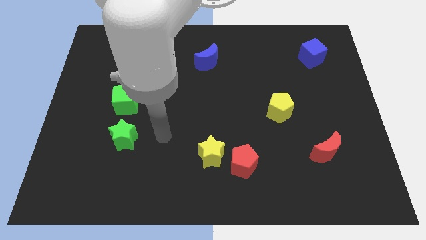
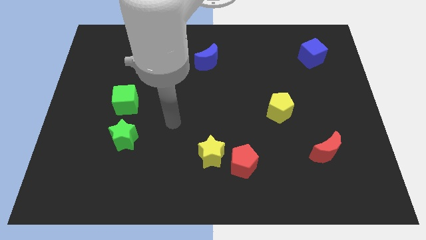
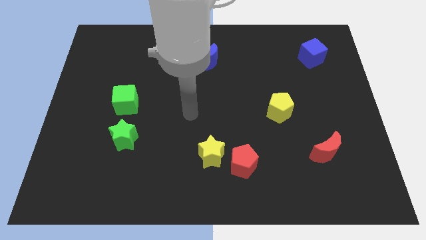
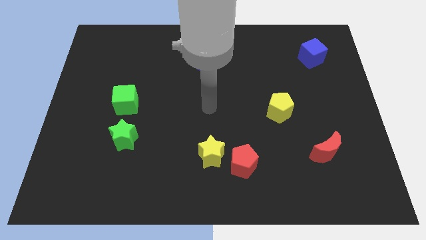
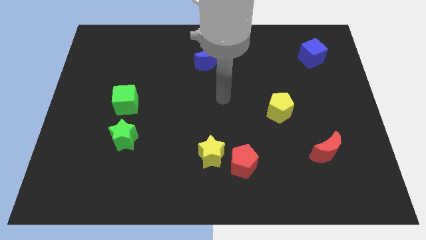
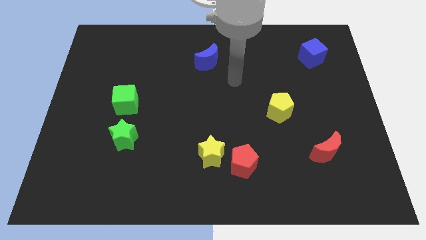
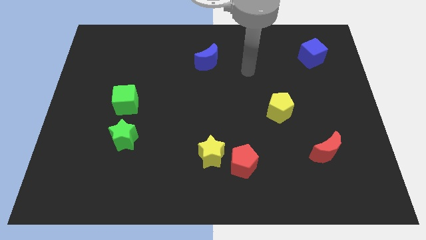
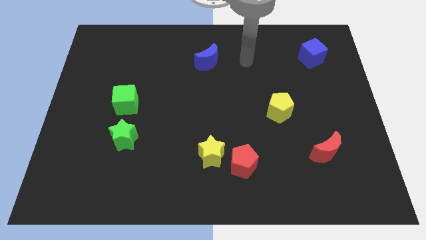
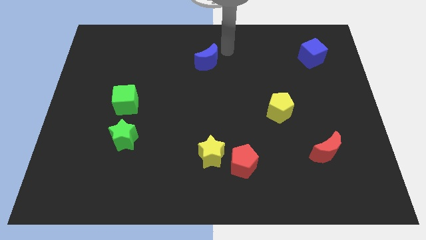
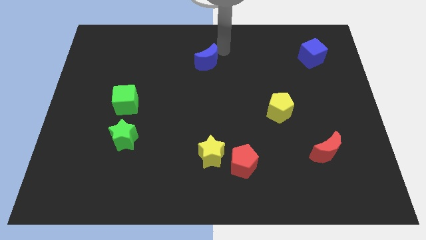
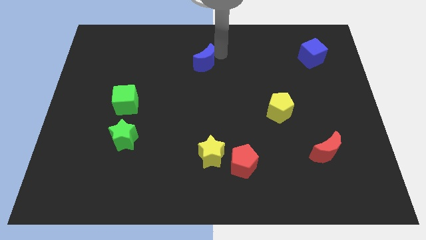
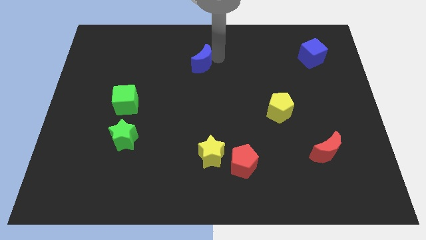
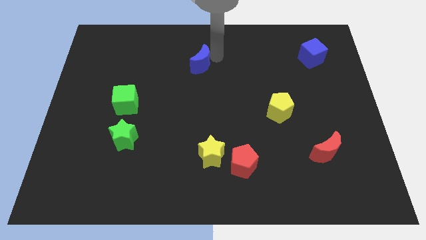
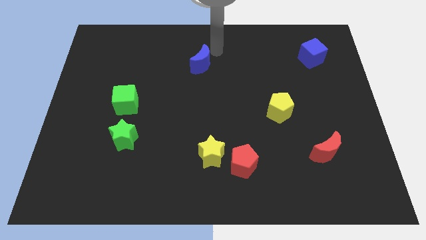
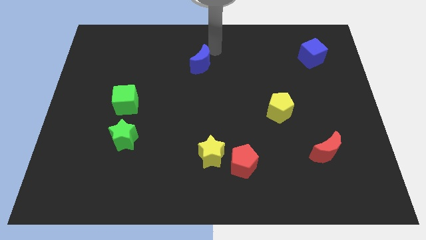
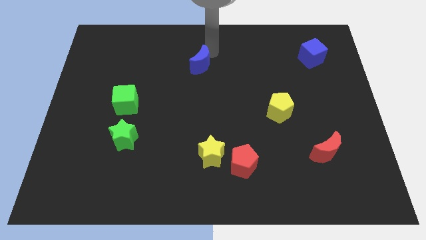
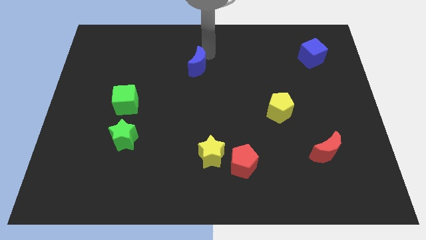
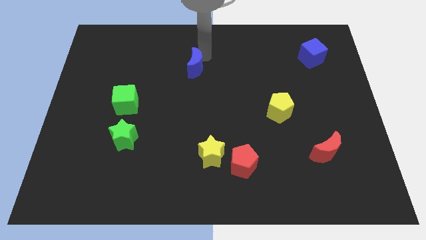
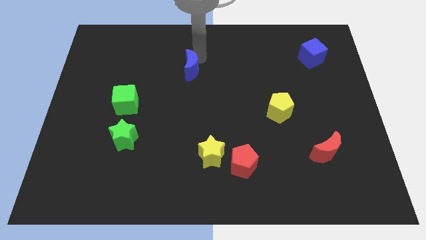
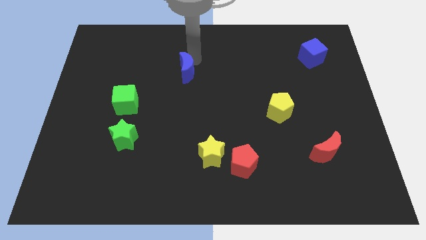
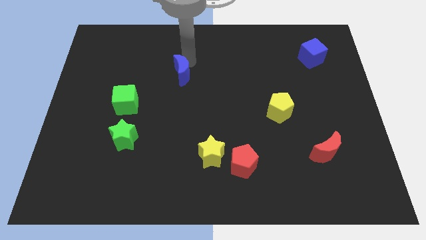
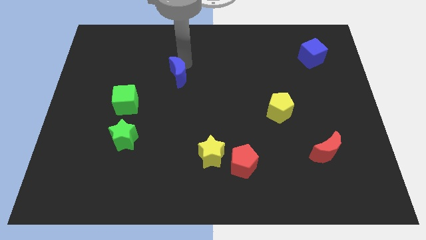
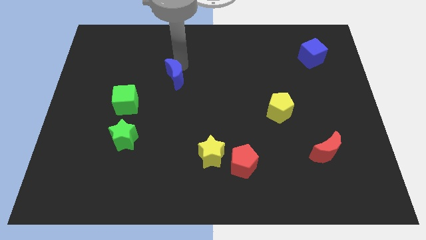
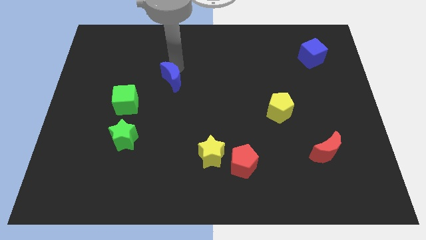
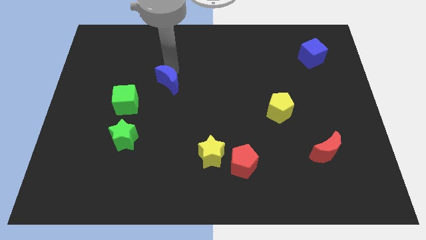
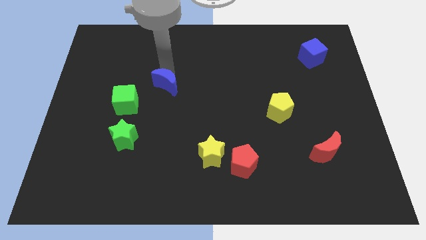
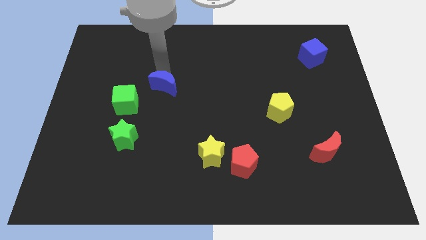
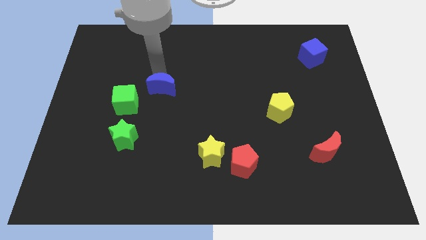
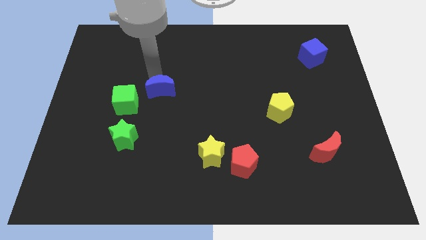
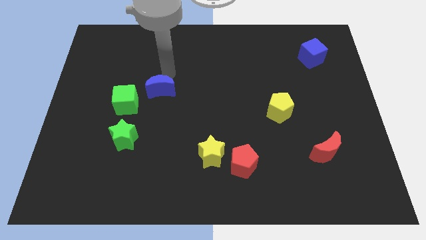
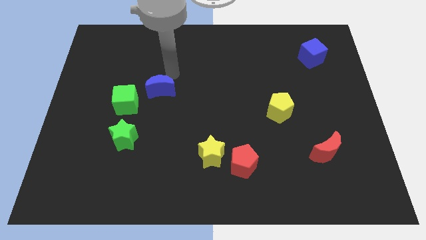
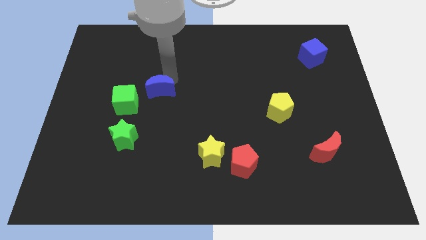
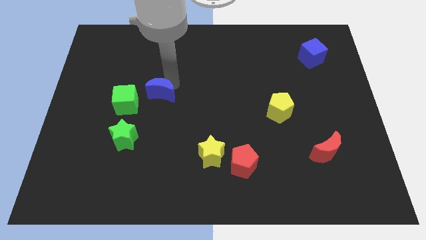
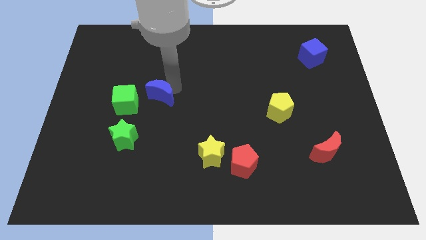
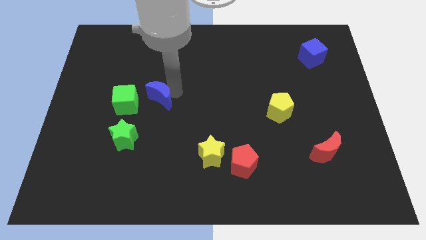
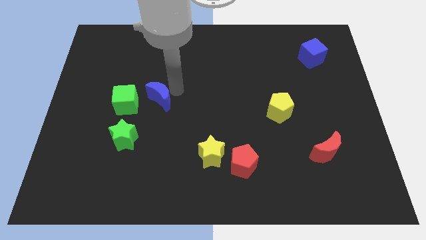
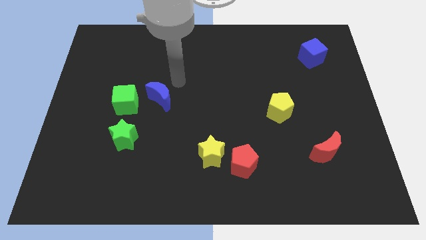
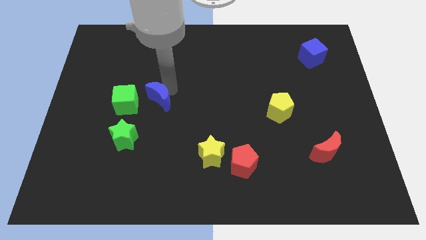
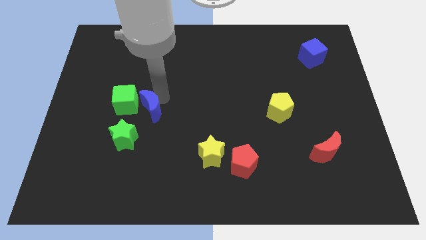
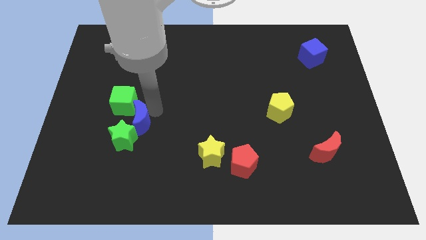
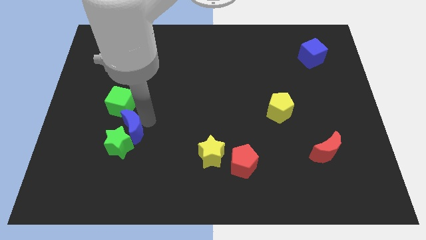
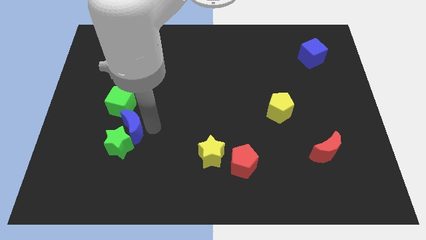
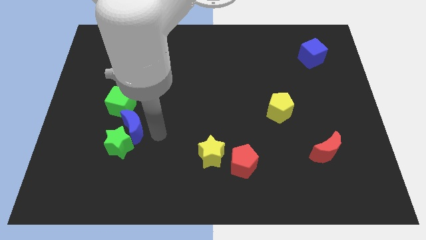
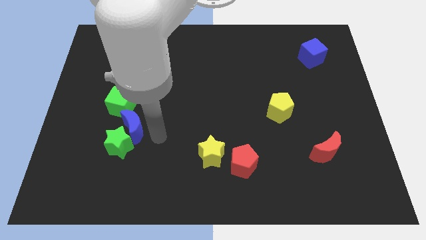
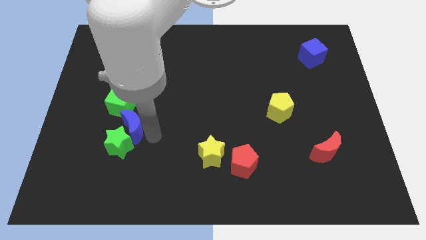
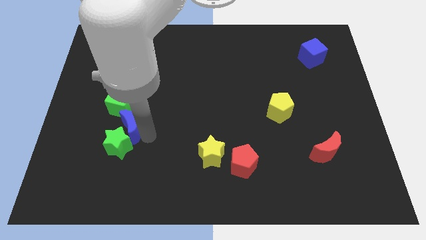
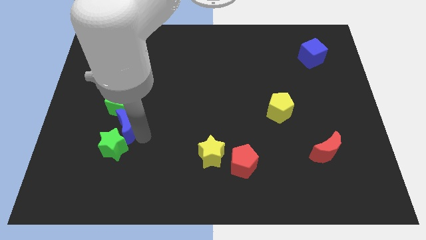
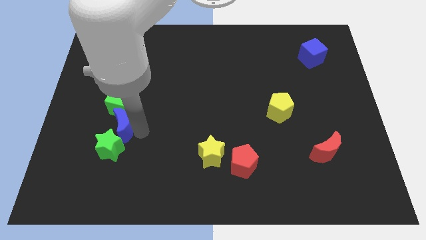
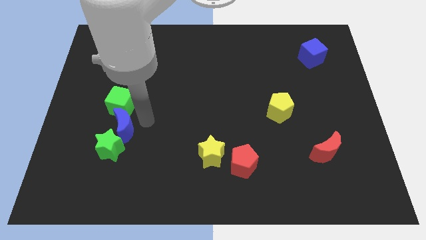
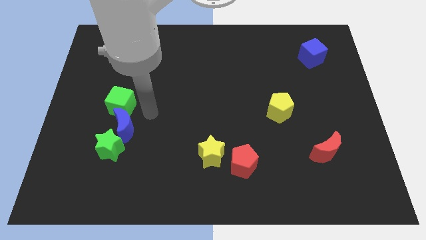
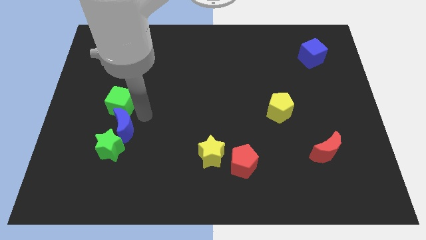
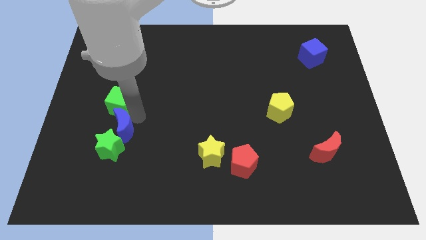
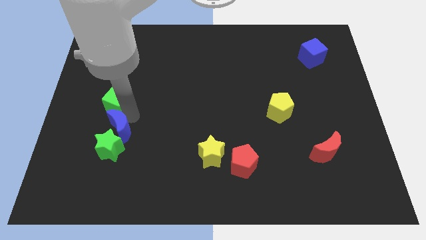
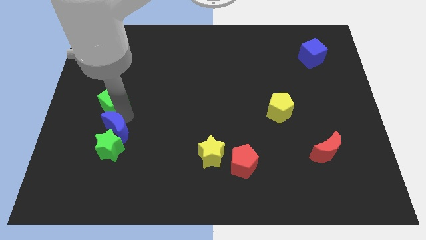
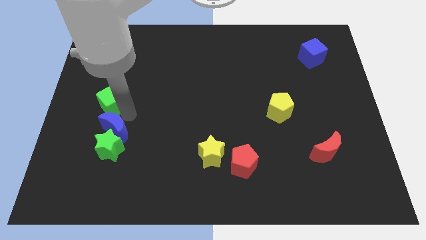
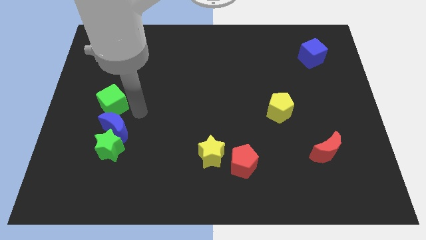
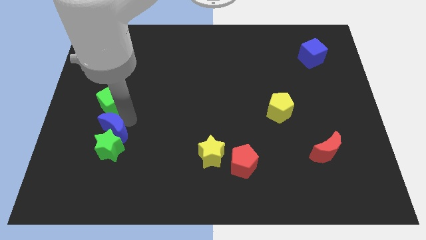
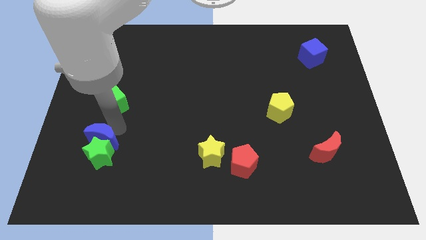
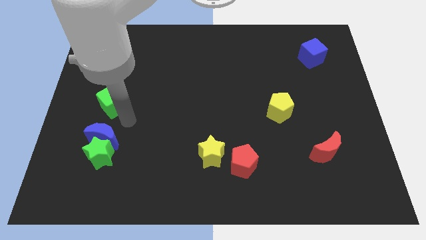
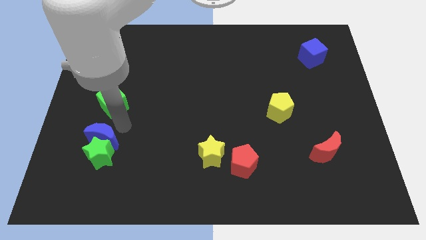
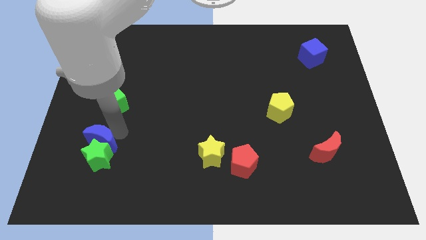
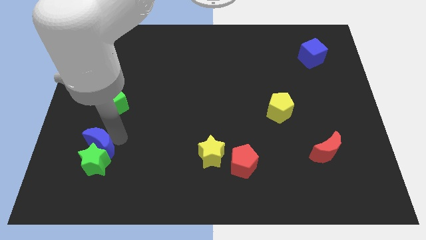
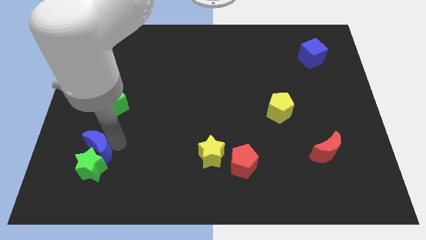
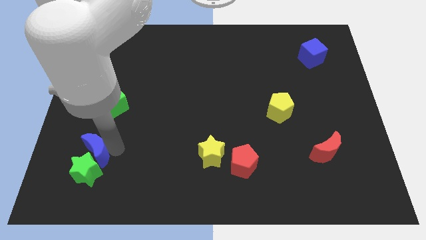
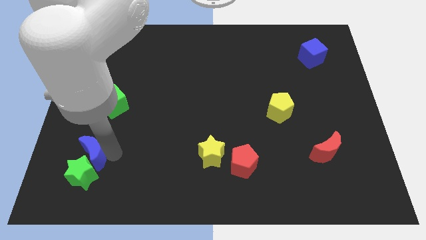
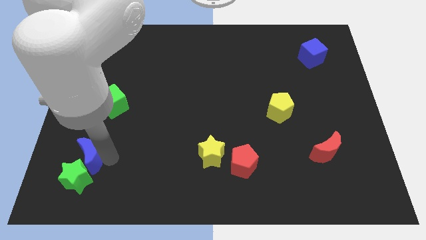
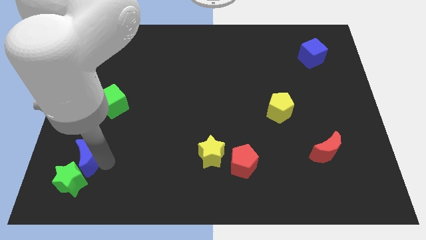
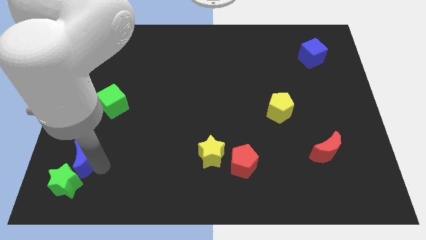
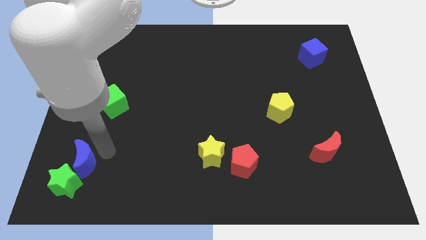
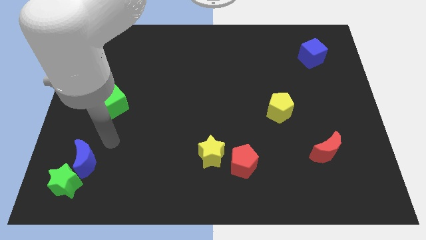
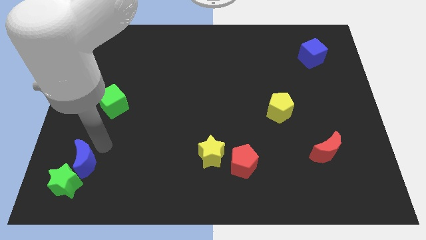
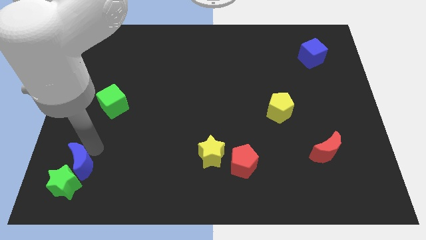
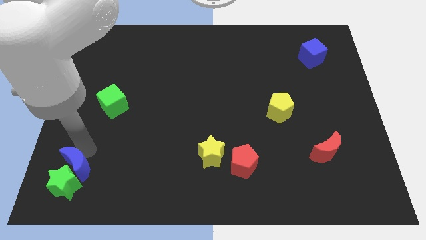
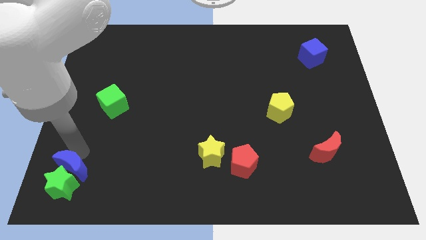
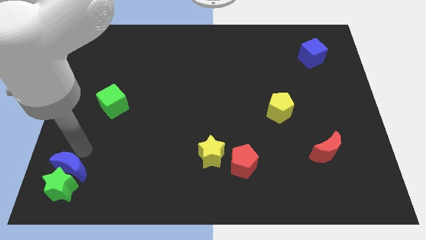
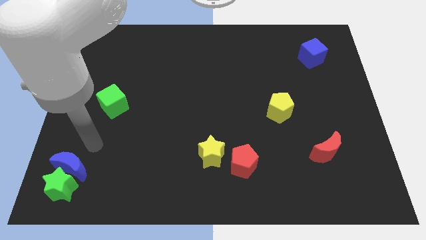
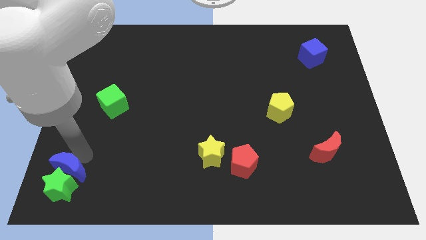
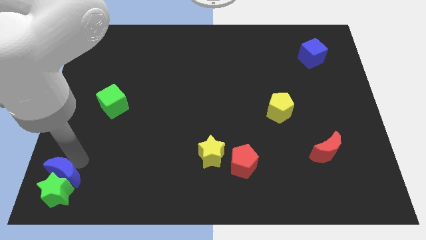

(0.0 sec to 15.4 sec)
put the blue moon to the bottom left of the board

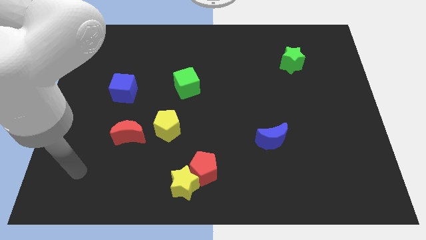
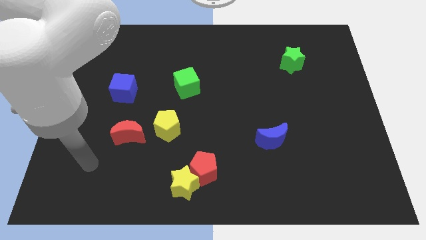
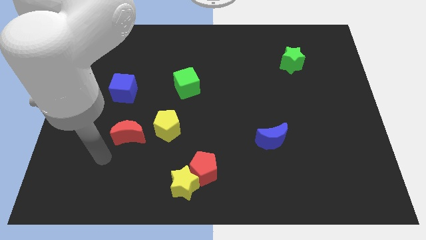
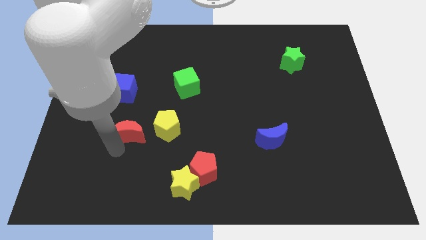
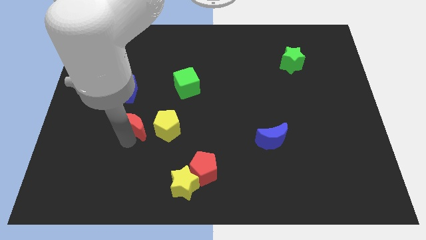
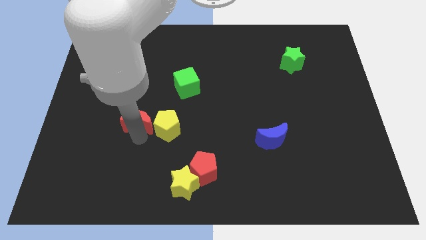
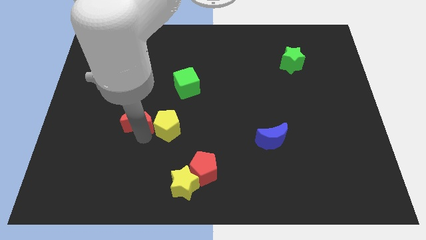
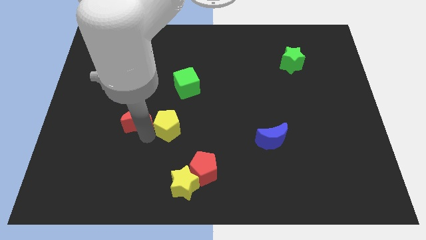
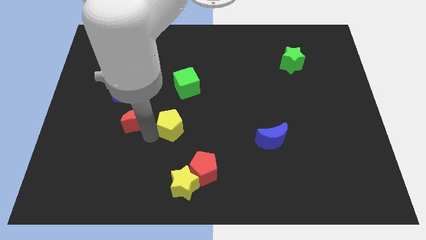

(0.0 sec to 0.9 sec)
put the yellow pentagon to the middle of the board
